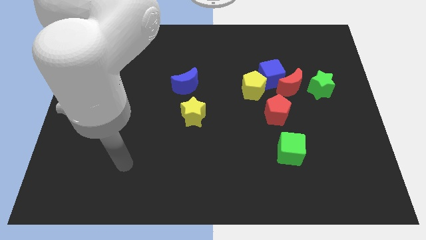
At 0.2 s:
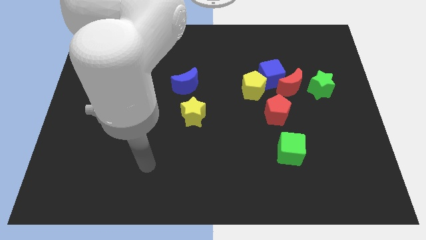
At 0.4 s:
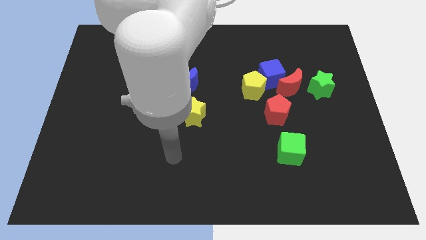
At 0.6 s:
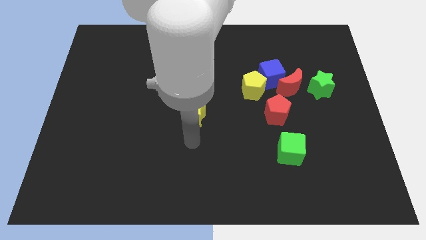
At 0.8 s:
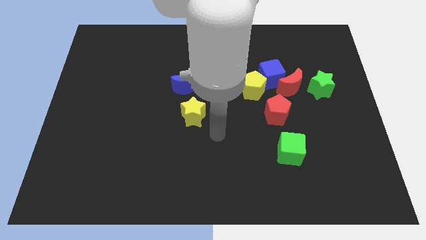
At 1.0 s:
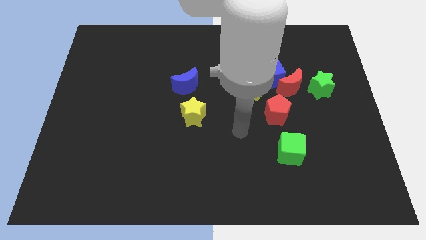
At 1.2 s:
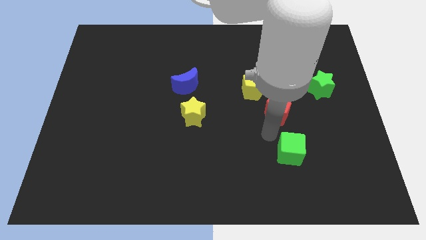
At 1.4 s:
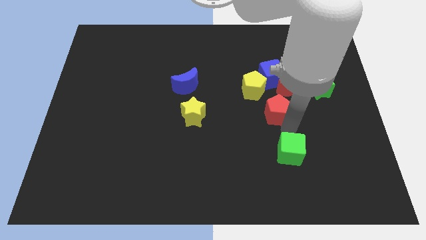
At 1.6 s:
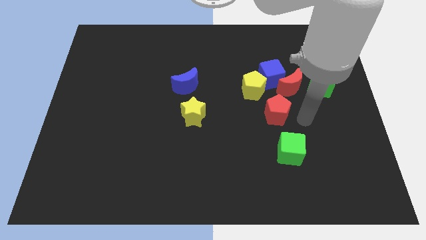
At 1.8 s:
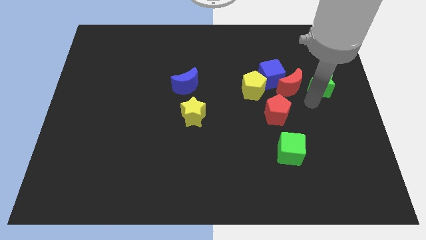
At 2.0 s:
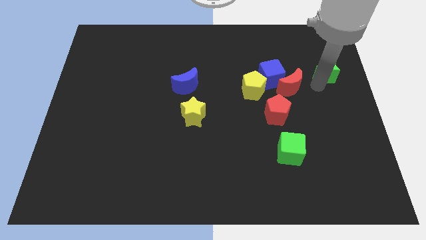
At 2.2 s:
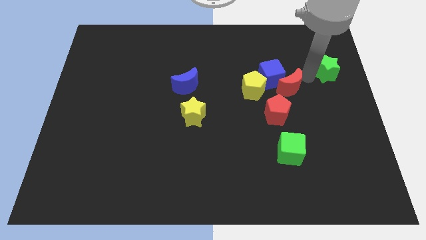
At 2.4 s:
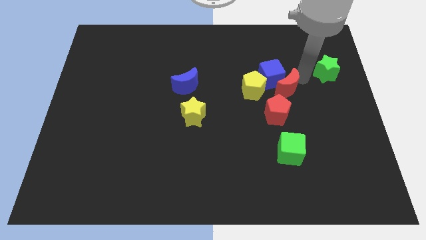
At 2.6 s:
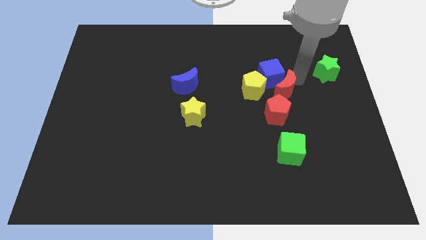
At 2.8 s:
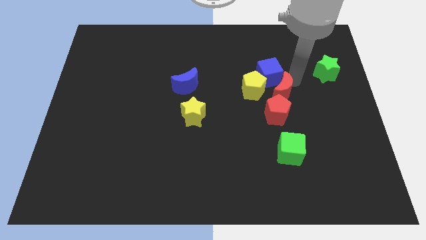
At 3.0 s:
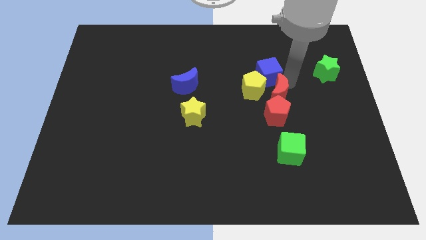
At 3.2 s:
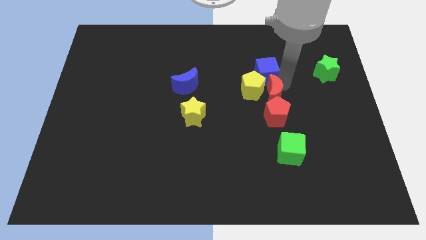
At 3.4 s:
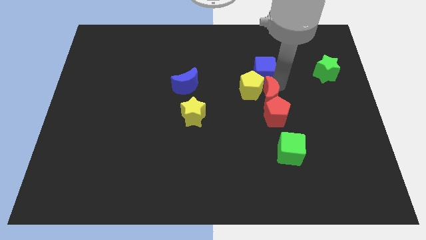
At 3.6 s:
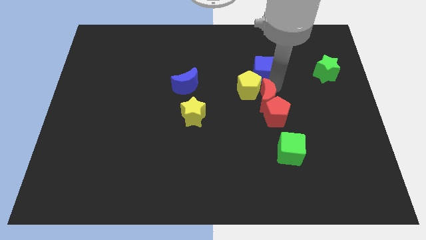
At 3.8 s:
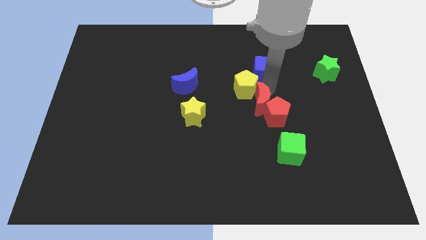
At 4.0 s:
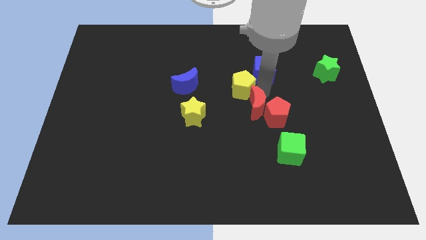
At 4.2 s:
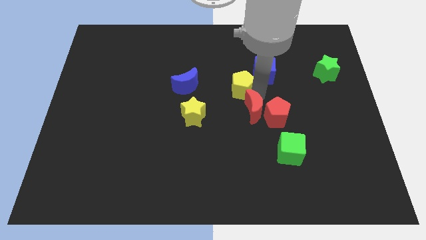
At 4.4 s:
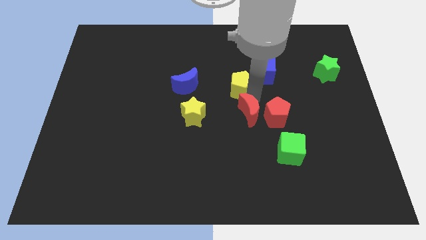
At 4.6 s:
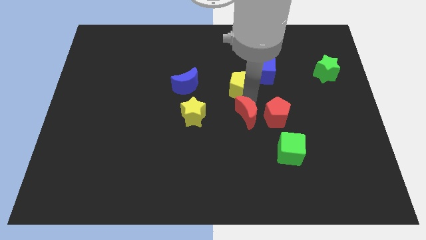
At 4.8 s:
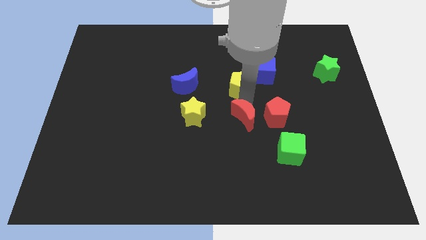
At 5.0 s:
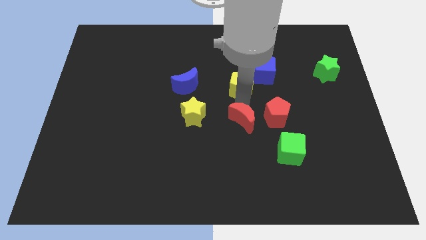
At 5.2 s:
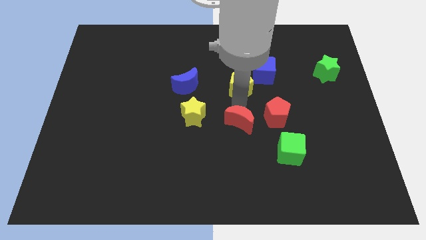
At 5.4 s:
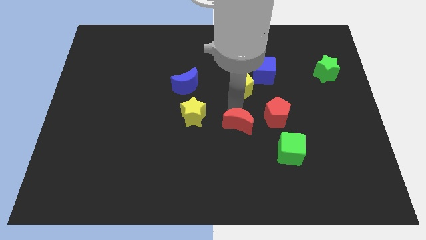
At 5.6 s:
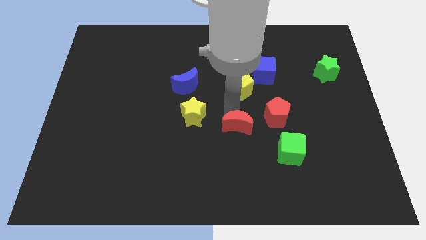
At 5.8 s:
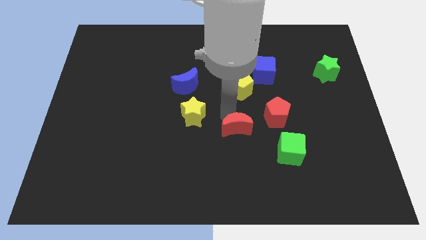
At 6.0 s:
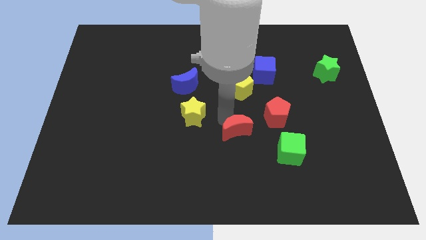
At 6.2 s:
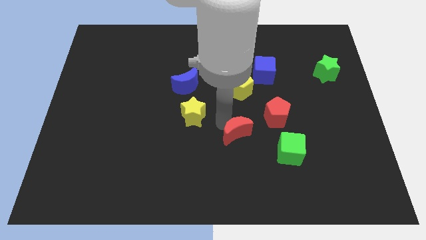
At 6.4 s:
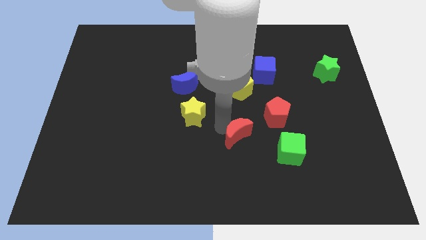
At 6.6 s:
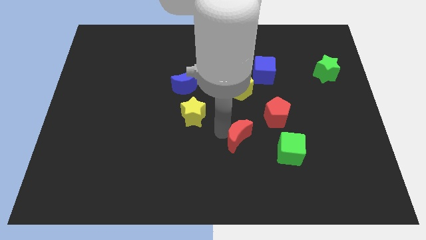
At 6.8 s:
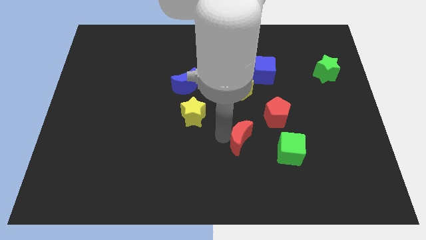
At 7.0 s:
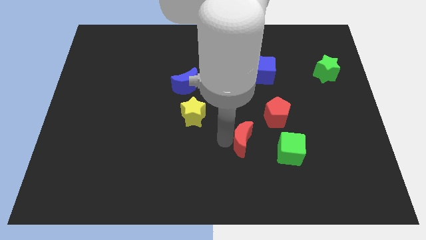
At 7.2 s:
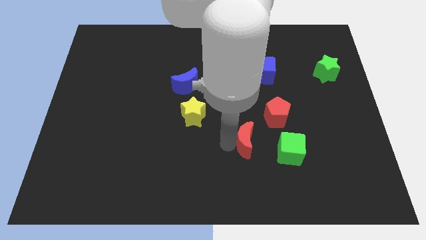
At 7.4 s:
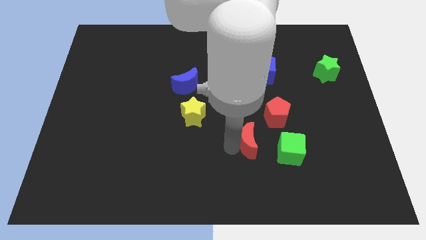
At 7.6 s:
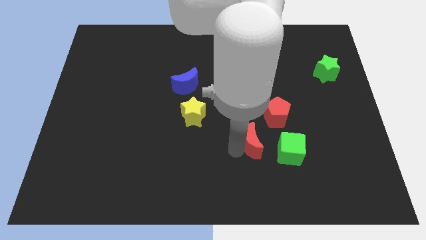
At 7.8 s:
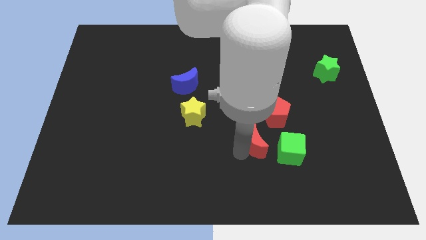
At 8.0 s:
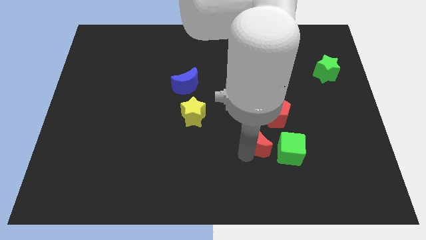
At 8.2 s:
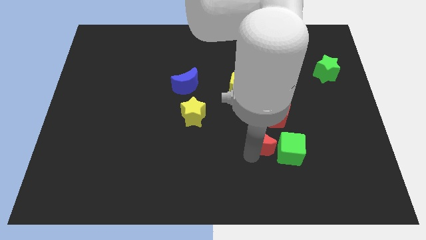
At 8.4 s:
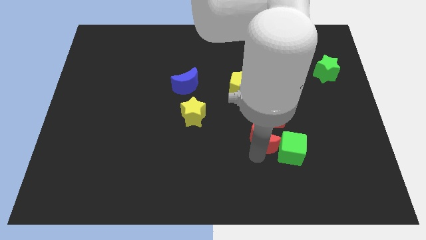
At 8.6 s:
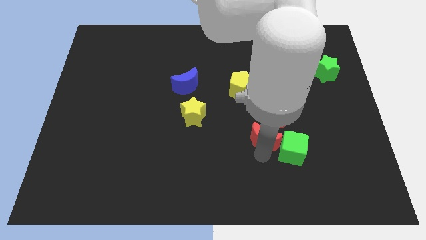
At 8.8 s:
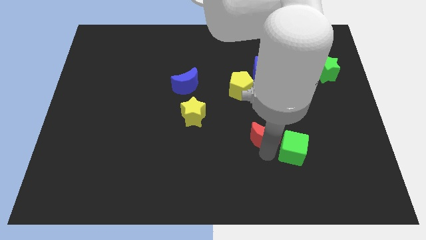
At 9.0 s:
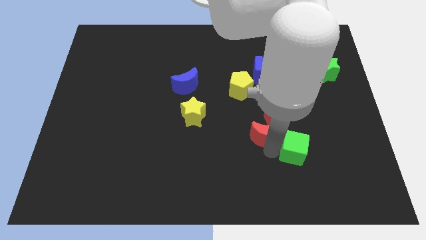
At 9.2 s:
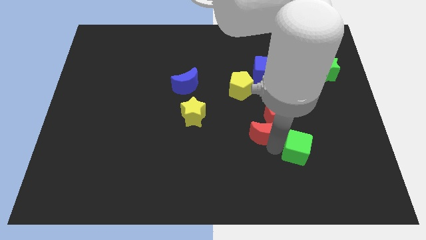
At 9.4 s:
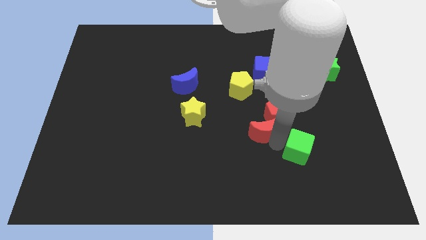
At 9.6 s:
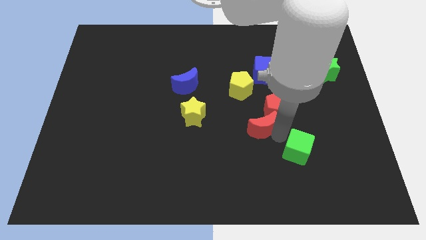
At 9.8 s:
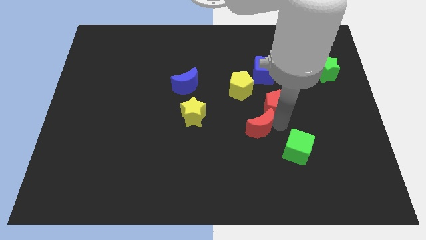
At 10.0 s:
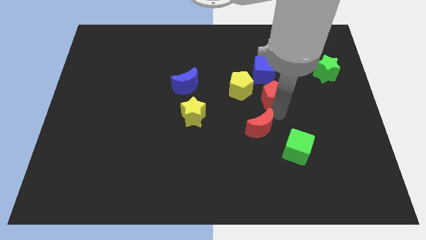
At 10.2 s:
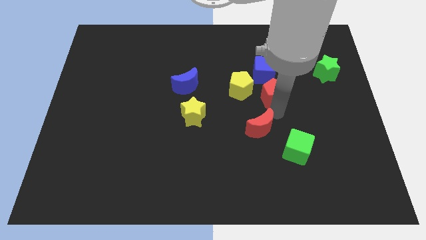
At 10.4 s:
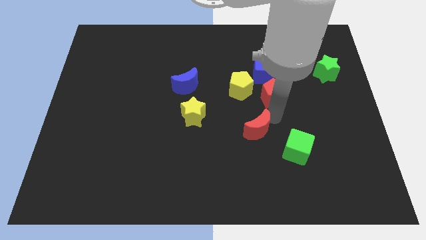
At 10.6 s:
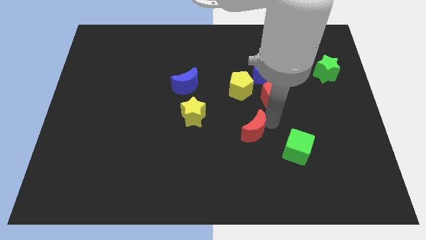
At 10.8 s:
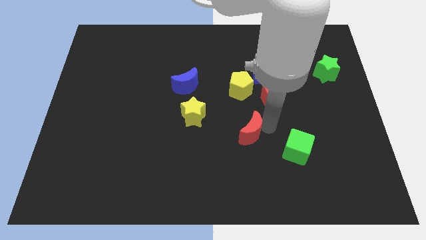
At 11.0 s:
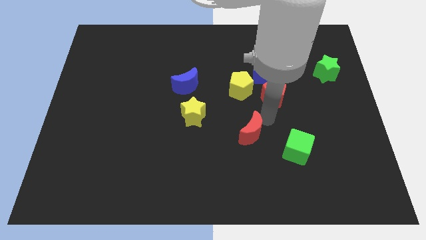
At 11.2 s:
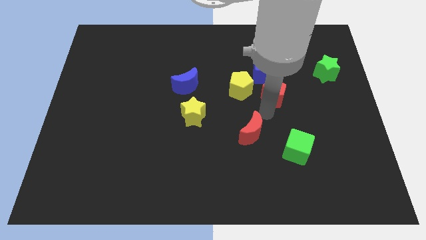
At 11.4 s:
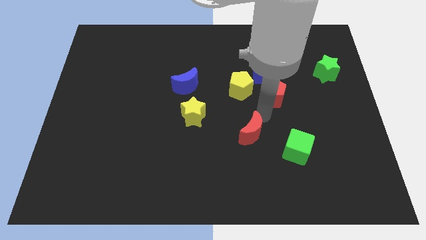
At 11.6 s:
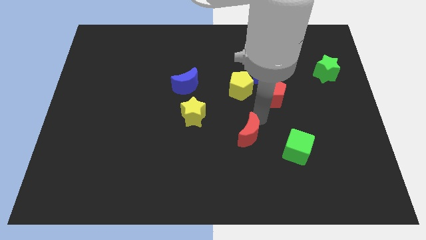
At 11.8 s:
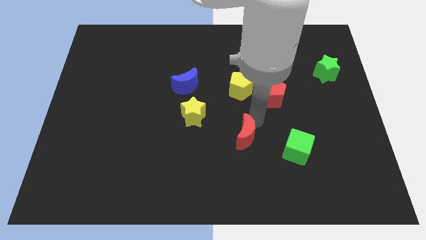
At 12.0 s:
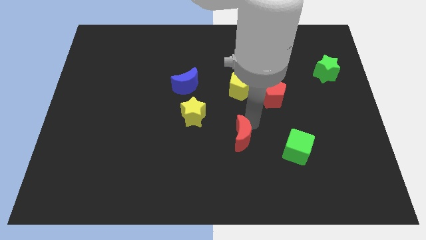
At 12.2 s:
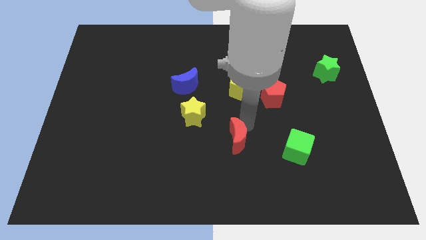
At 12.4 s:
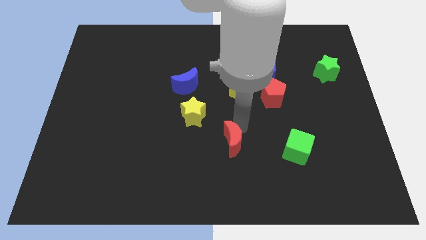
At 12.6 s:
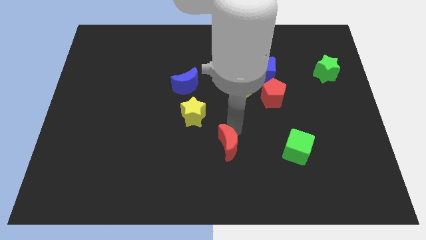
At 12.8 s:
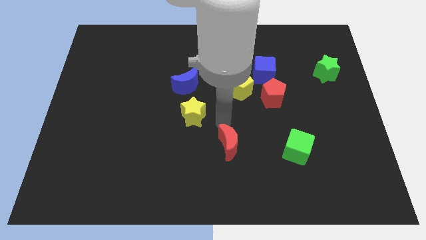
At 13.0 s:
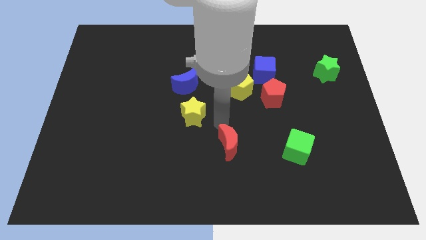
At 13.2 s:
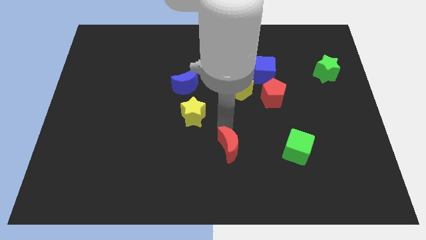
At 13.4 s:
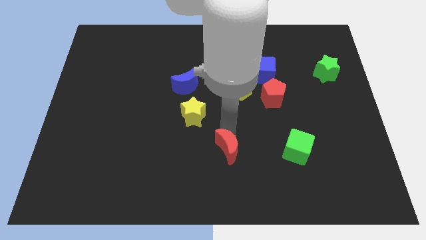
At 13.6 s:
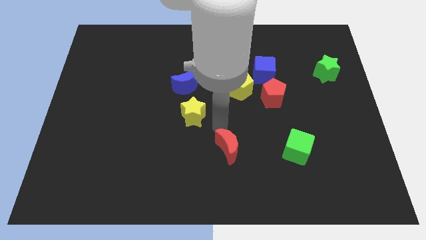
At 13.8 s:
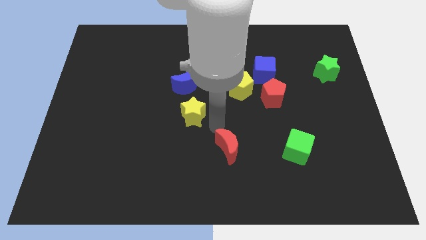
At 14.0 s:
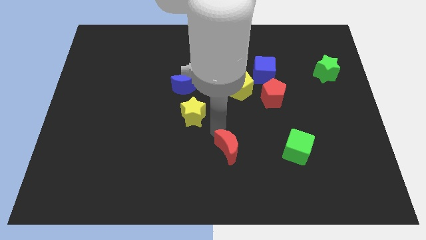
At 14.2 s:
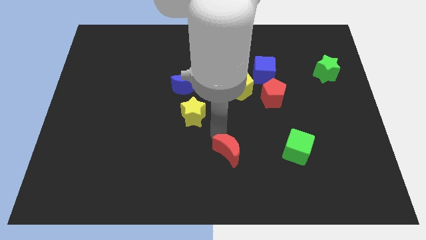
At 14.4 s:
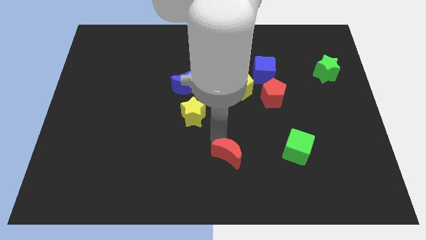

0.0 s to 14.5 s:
slide the red moon to the bottom side

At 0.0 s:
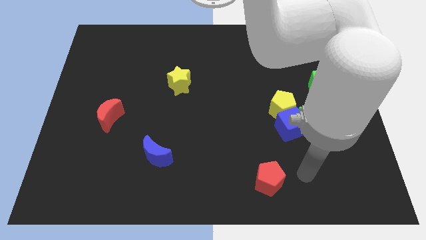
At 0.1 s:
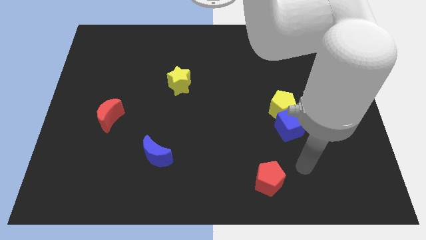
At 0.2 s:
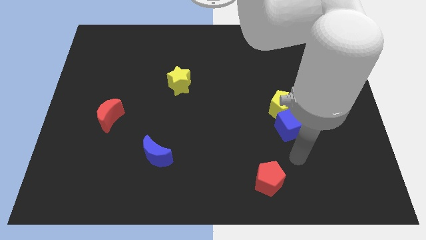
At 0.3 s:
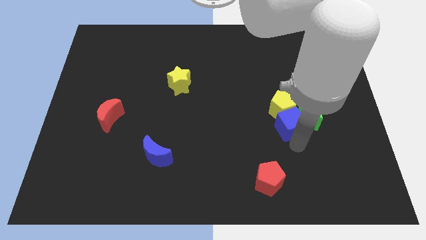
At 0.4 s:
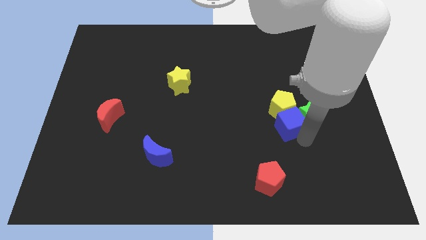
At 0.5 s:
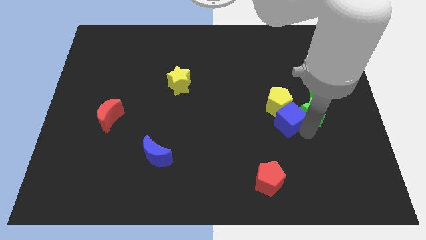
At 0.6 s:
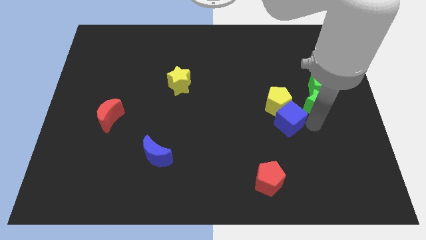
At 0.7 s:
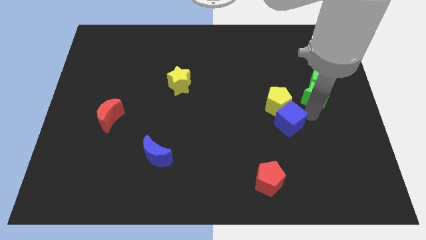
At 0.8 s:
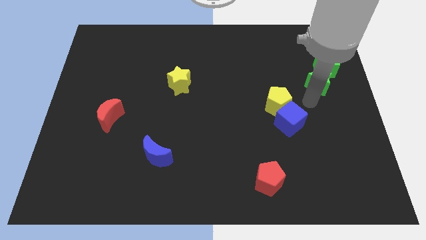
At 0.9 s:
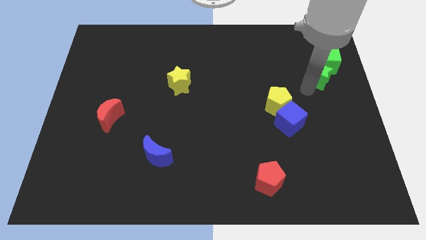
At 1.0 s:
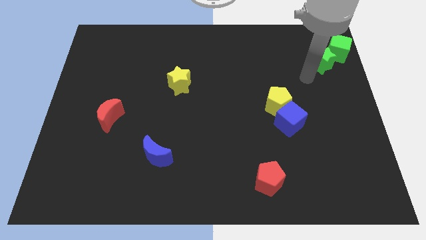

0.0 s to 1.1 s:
push the green cube to the upper right corner
